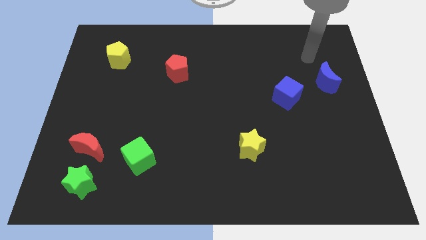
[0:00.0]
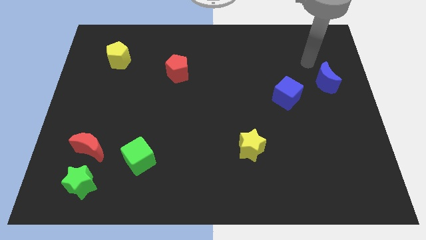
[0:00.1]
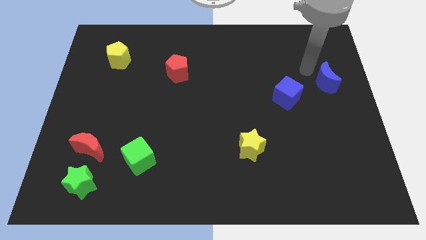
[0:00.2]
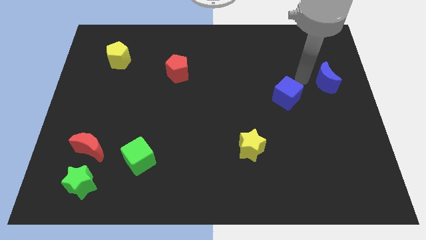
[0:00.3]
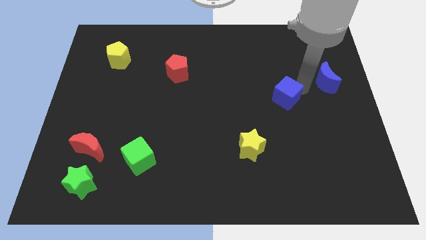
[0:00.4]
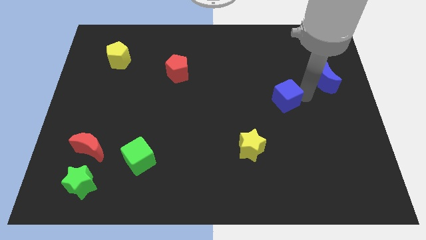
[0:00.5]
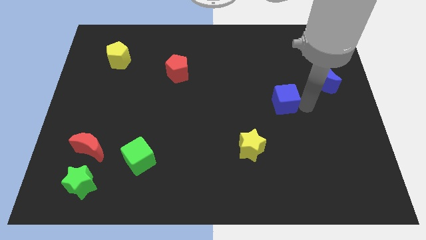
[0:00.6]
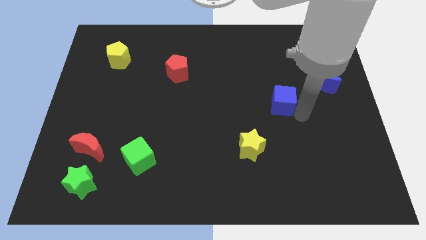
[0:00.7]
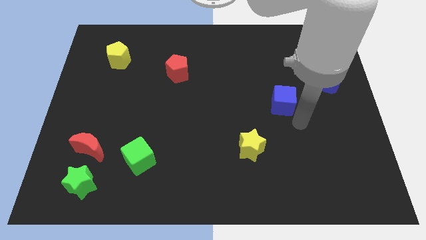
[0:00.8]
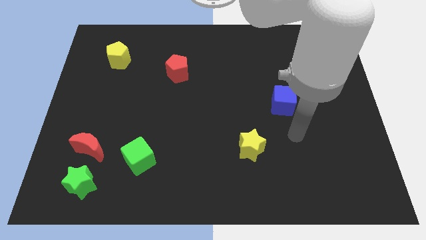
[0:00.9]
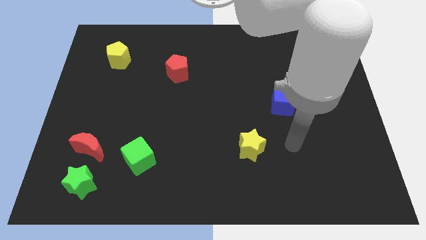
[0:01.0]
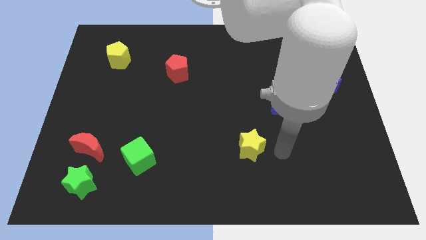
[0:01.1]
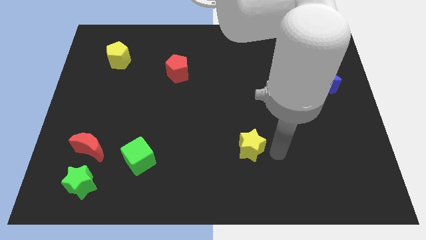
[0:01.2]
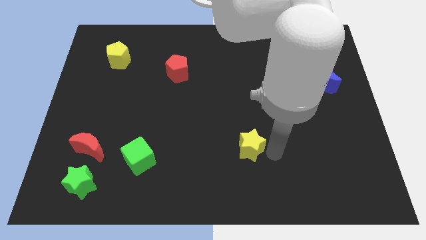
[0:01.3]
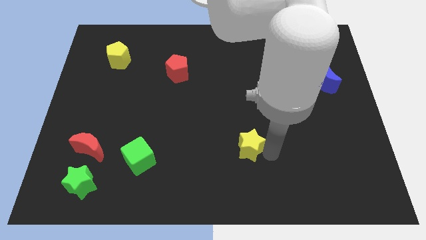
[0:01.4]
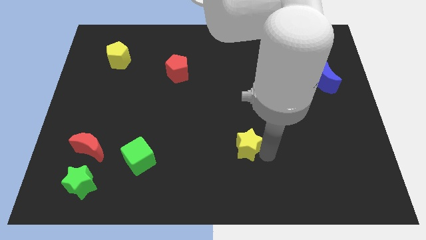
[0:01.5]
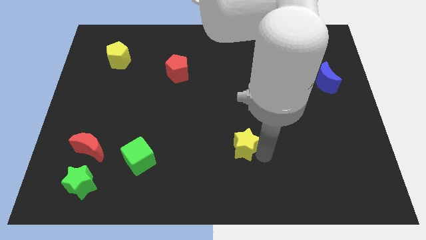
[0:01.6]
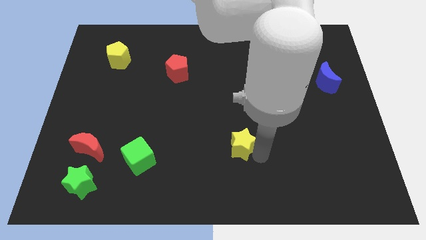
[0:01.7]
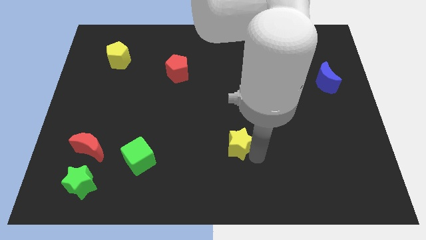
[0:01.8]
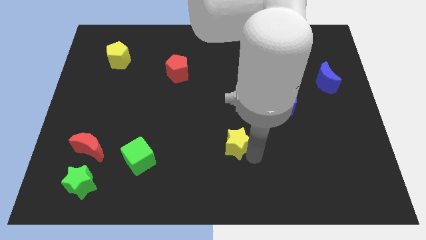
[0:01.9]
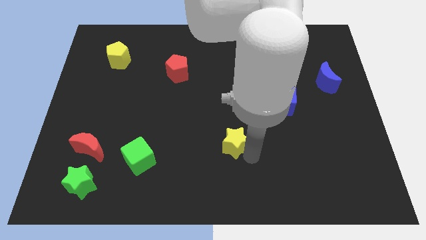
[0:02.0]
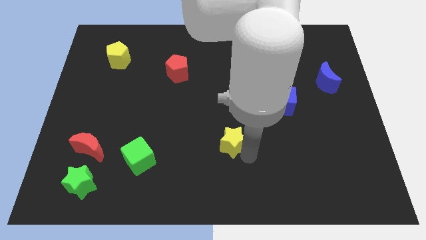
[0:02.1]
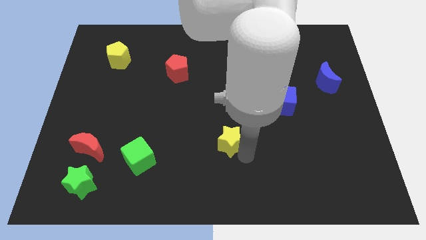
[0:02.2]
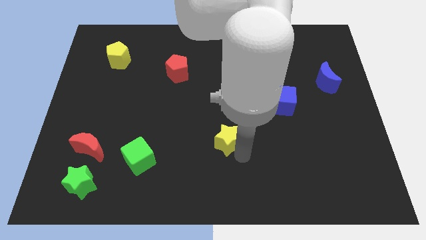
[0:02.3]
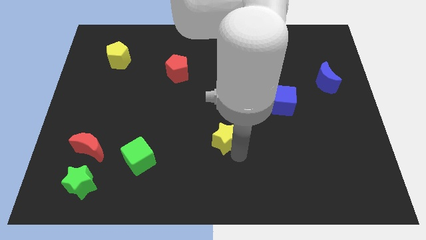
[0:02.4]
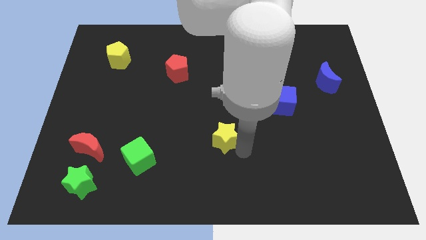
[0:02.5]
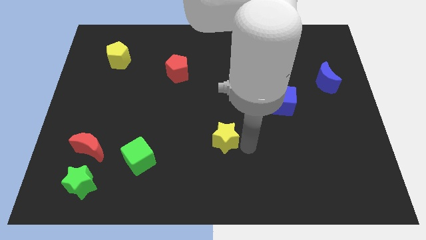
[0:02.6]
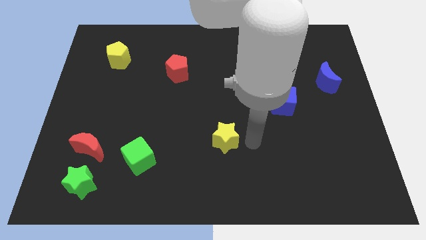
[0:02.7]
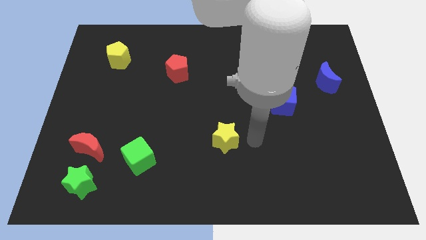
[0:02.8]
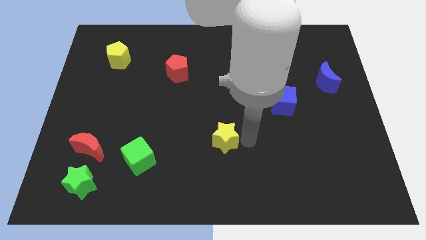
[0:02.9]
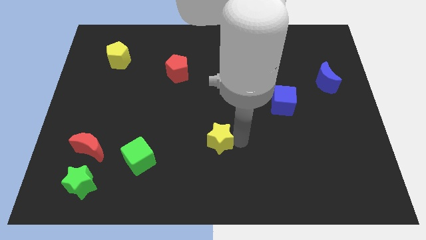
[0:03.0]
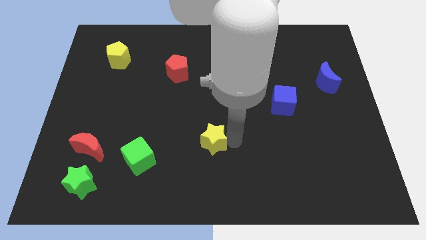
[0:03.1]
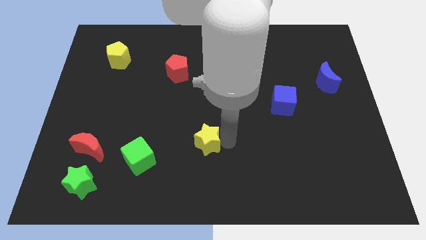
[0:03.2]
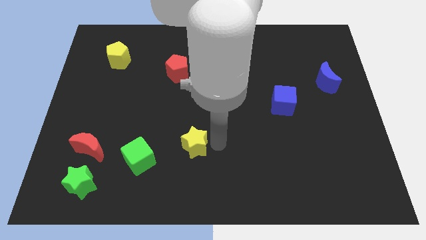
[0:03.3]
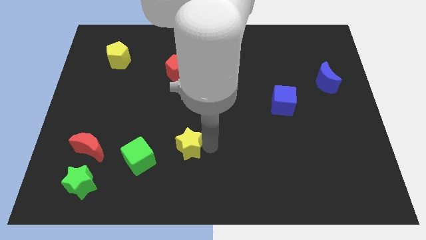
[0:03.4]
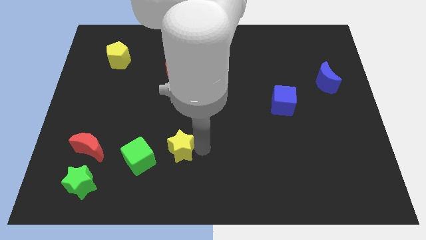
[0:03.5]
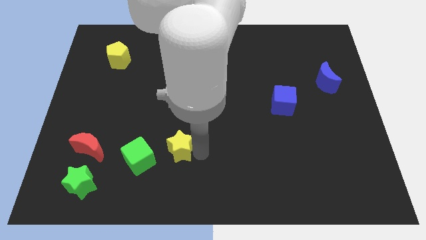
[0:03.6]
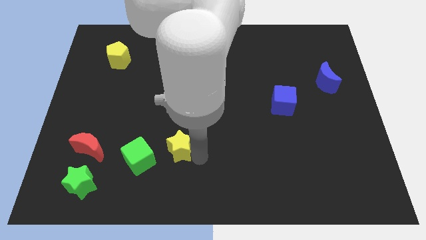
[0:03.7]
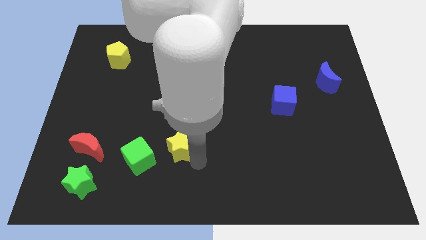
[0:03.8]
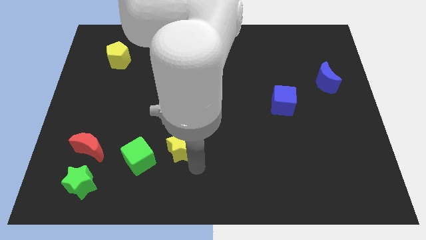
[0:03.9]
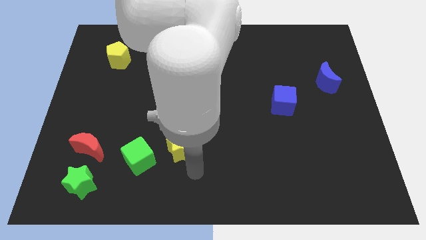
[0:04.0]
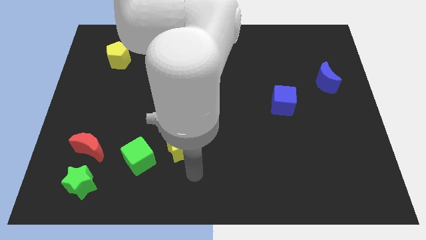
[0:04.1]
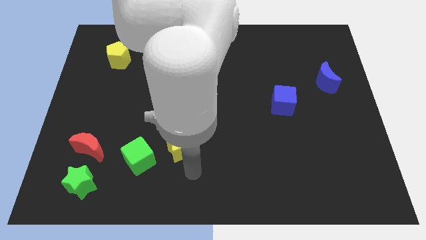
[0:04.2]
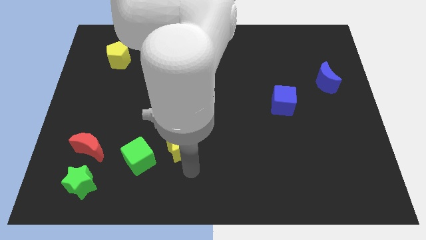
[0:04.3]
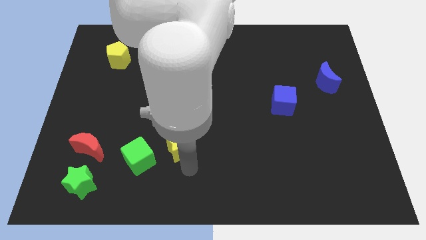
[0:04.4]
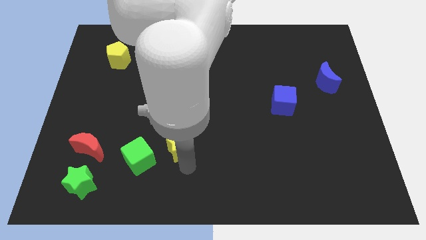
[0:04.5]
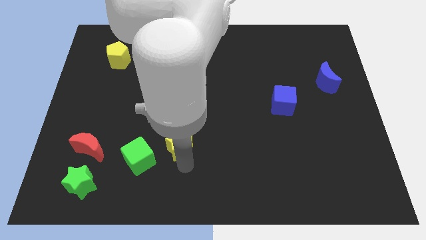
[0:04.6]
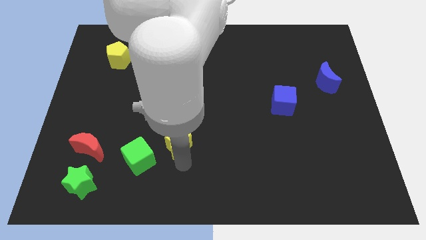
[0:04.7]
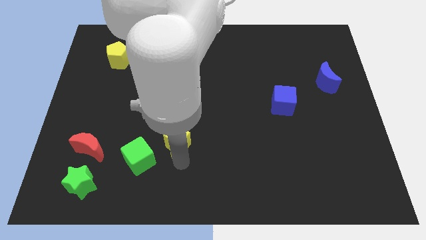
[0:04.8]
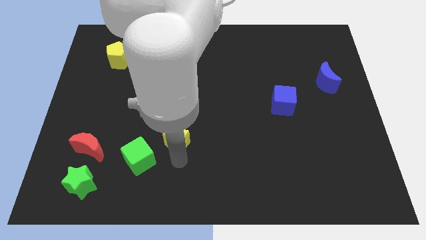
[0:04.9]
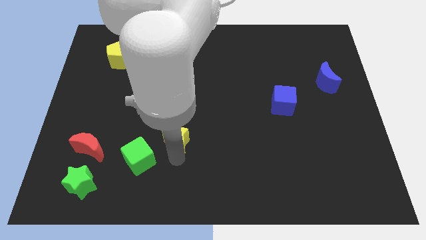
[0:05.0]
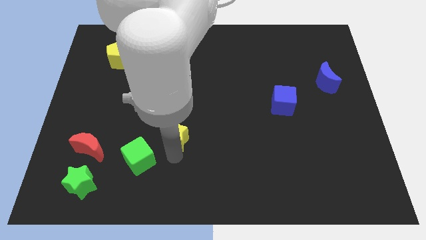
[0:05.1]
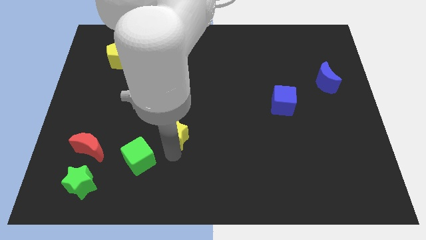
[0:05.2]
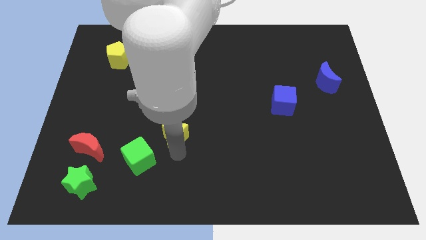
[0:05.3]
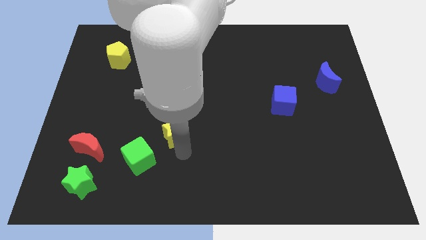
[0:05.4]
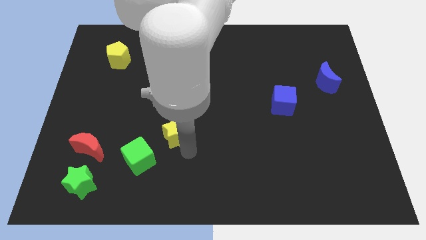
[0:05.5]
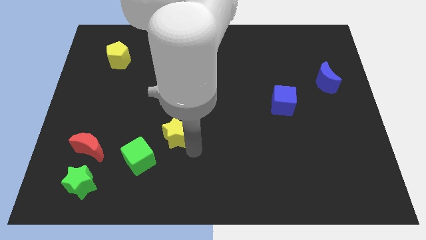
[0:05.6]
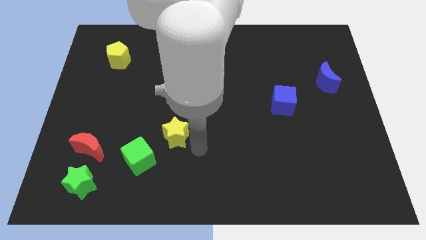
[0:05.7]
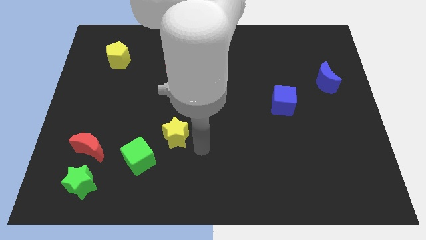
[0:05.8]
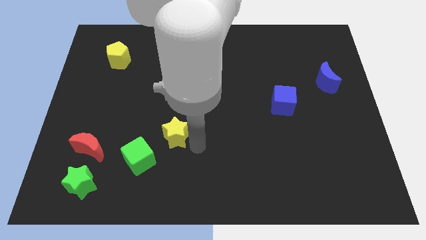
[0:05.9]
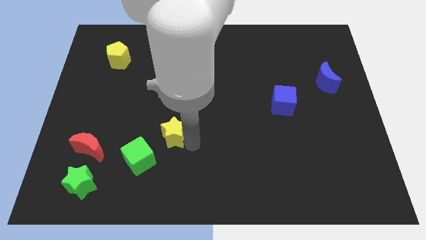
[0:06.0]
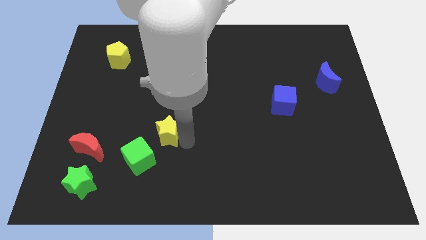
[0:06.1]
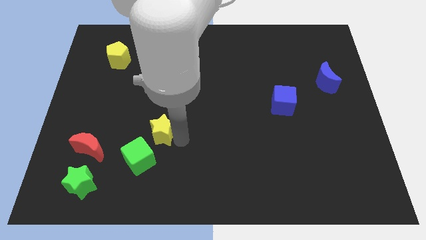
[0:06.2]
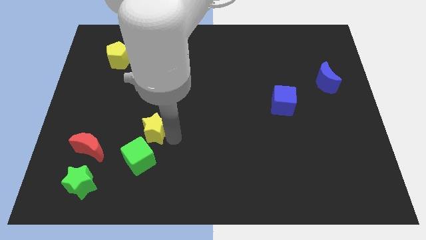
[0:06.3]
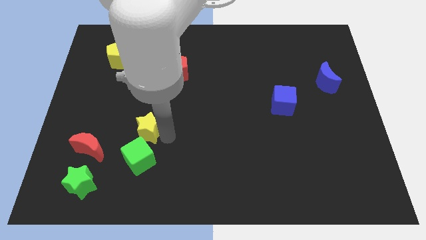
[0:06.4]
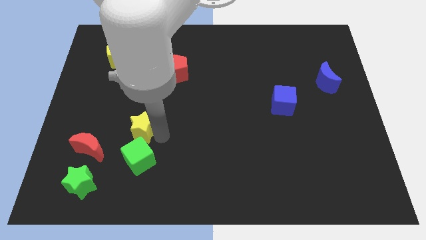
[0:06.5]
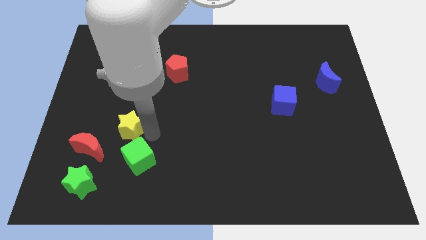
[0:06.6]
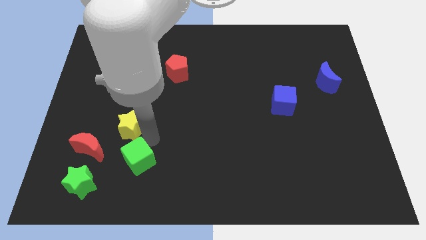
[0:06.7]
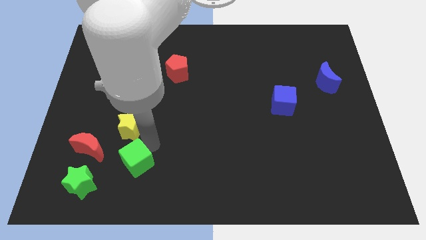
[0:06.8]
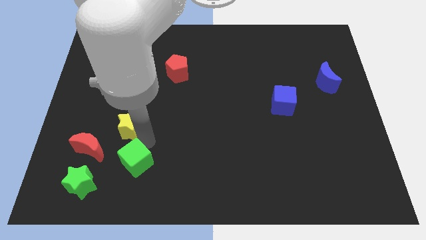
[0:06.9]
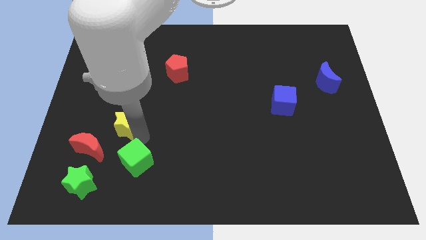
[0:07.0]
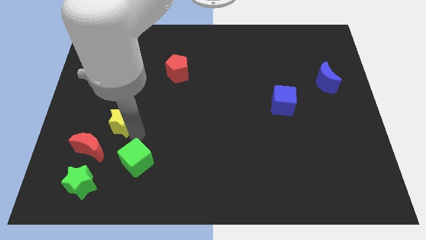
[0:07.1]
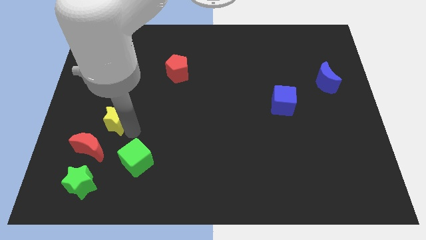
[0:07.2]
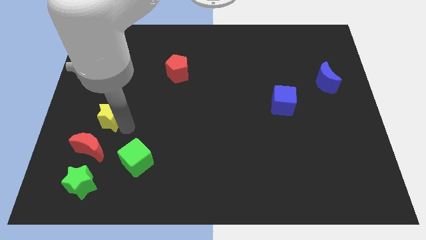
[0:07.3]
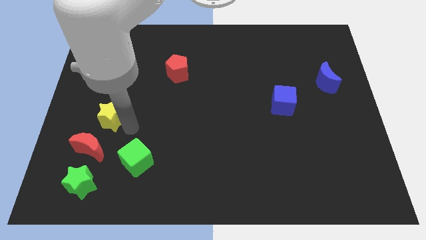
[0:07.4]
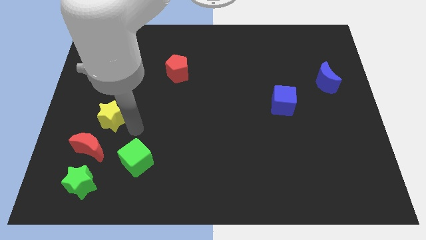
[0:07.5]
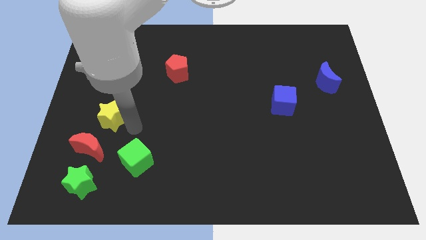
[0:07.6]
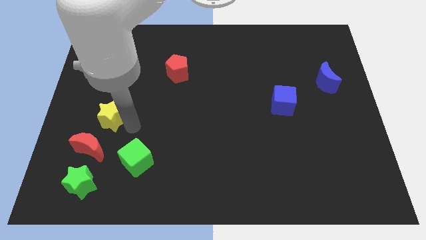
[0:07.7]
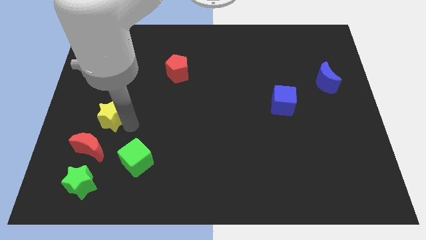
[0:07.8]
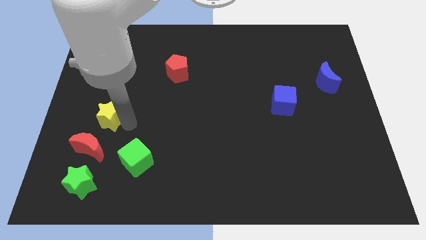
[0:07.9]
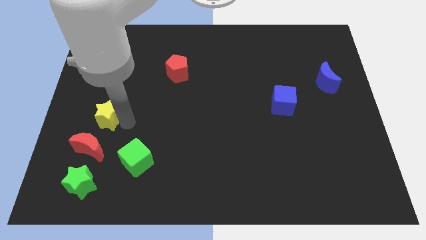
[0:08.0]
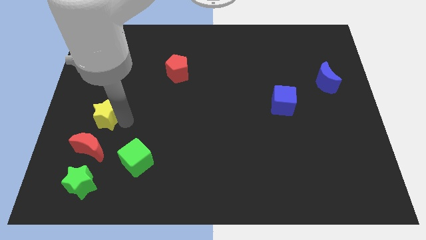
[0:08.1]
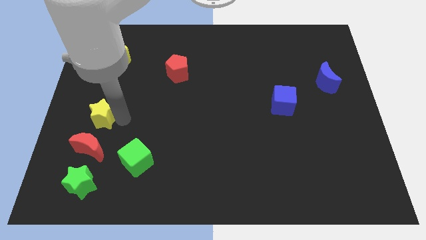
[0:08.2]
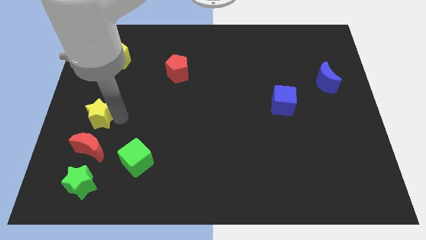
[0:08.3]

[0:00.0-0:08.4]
move the yellow star to the left side
